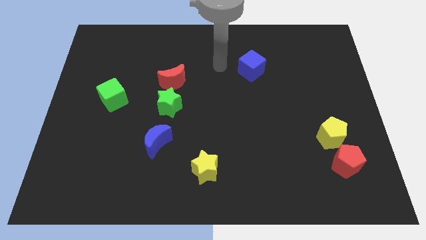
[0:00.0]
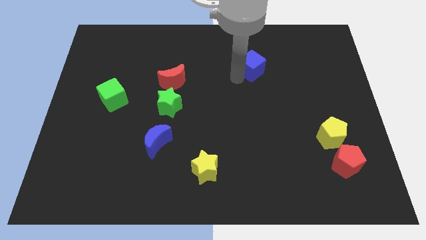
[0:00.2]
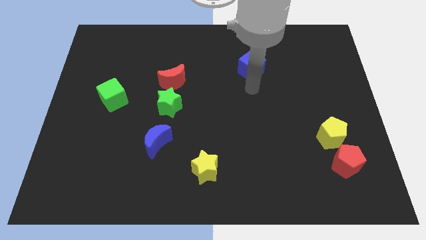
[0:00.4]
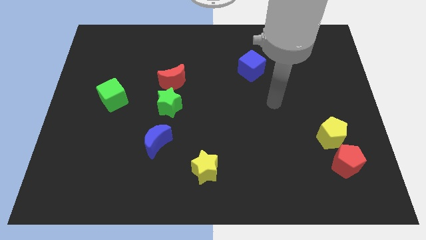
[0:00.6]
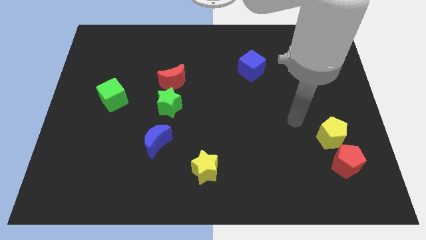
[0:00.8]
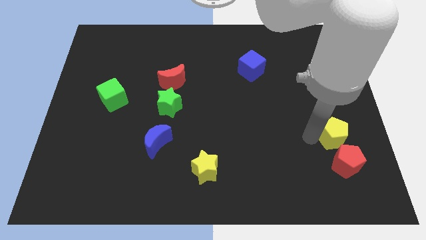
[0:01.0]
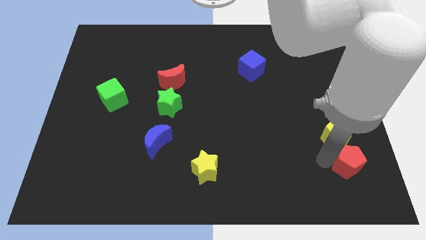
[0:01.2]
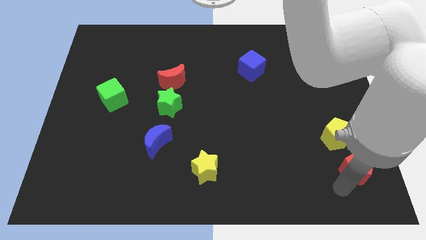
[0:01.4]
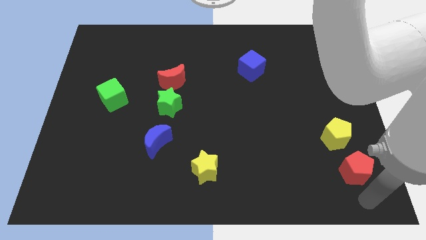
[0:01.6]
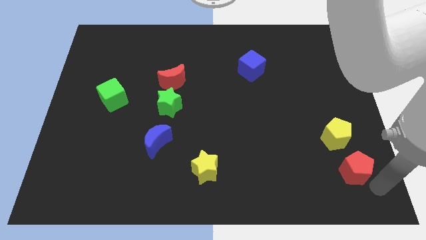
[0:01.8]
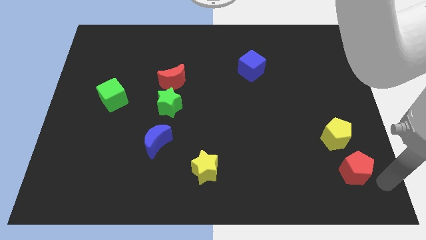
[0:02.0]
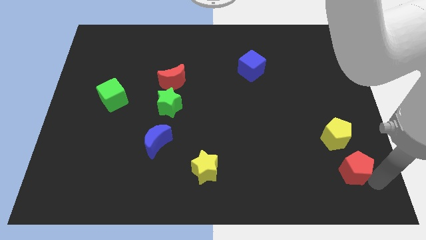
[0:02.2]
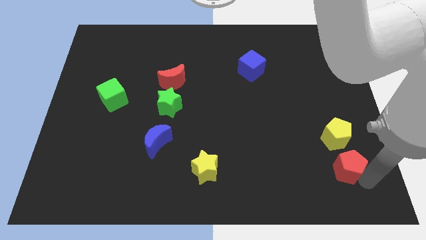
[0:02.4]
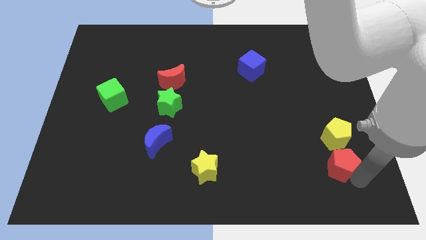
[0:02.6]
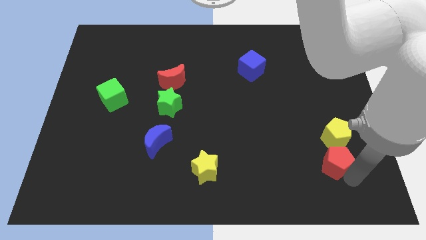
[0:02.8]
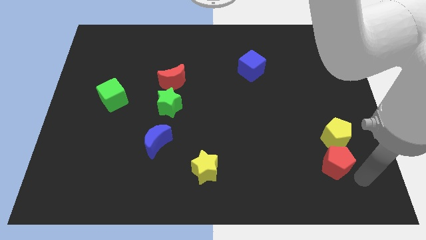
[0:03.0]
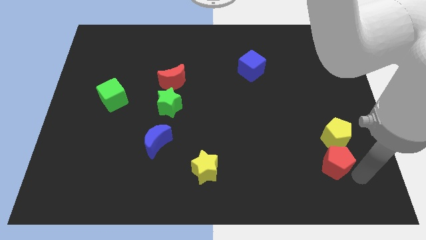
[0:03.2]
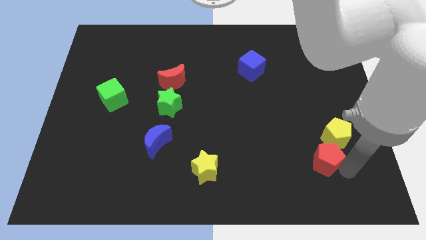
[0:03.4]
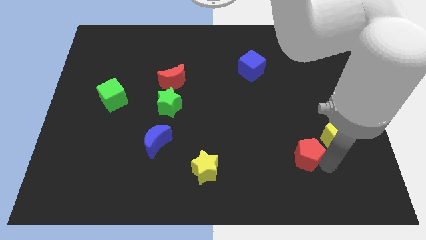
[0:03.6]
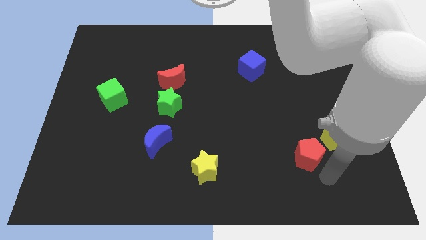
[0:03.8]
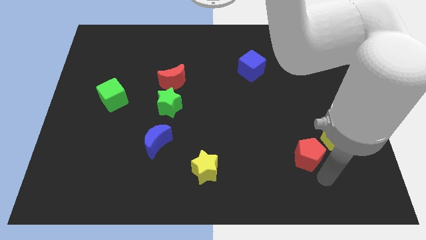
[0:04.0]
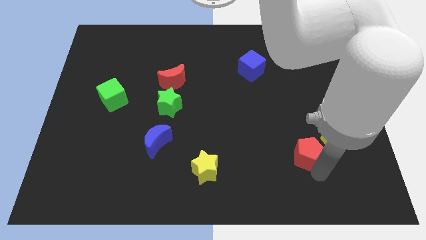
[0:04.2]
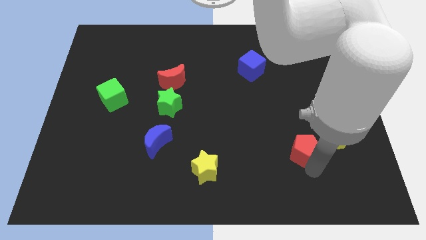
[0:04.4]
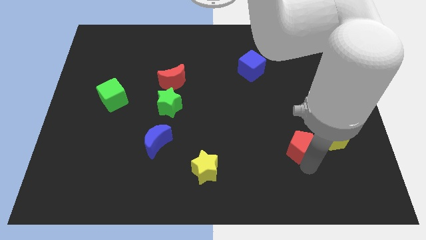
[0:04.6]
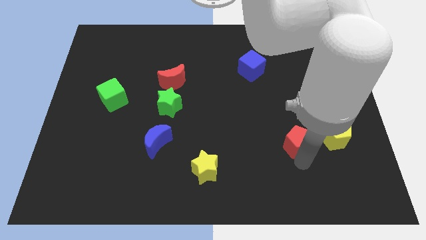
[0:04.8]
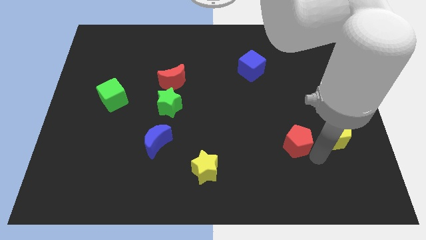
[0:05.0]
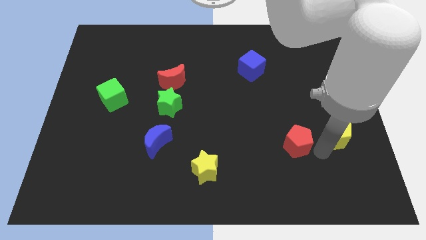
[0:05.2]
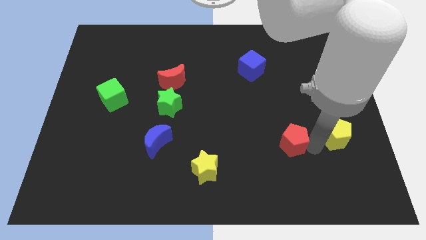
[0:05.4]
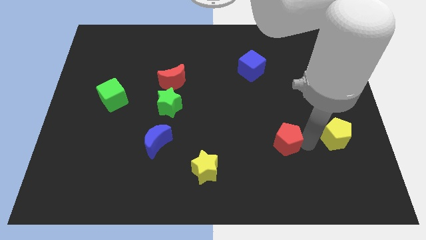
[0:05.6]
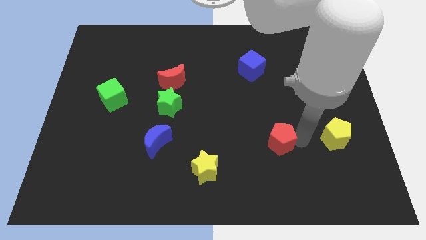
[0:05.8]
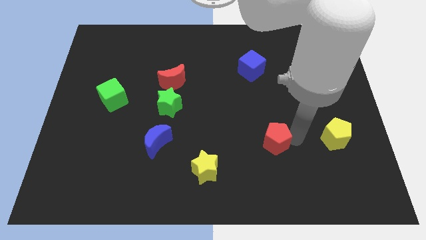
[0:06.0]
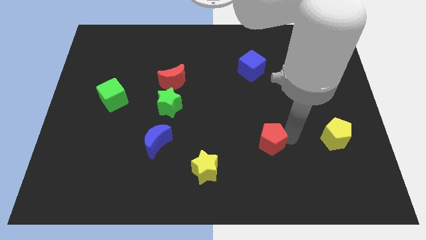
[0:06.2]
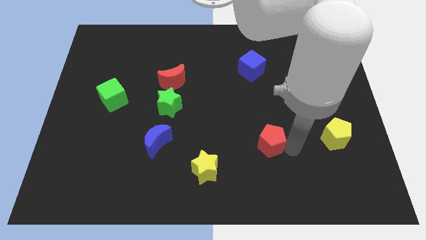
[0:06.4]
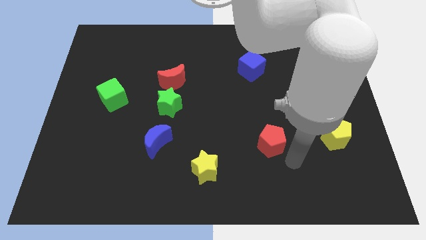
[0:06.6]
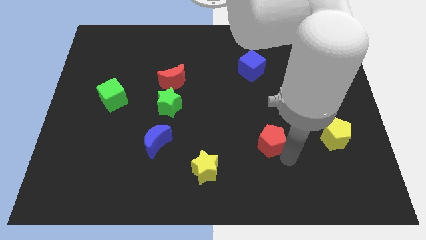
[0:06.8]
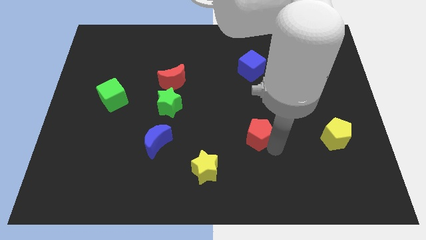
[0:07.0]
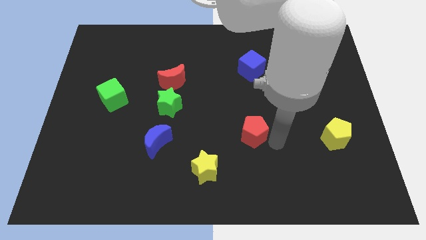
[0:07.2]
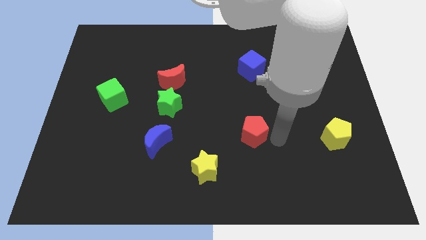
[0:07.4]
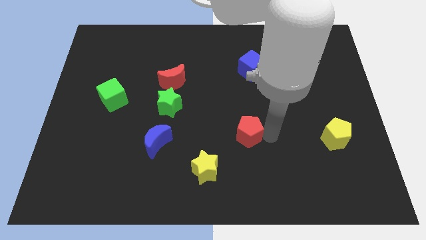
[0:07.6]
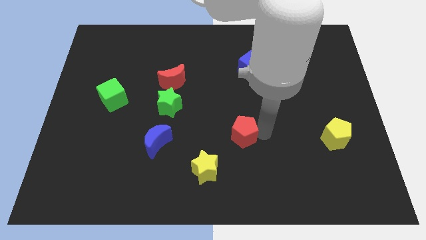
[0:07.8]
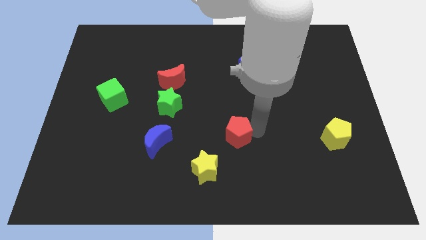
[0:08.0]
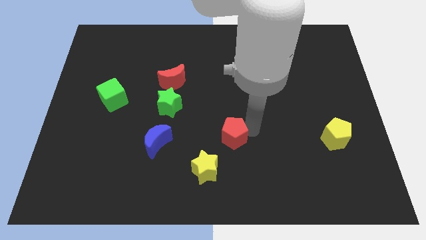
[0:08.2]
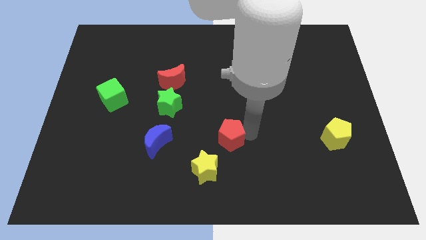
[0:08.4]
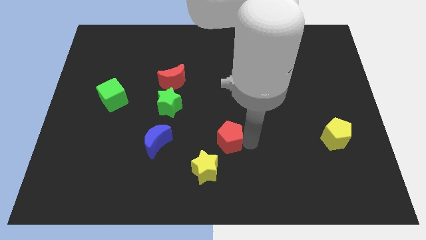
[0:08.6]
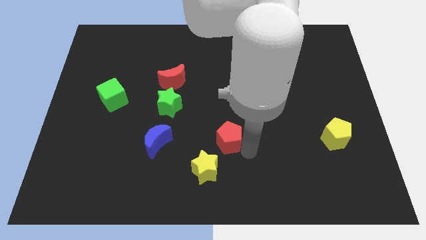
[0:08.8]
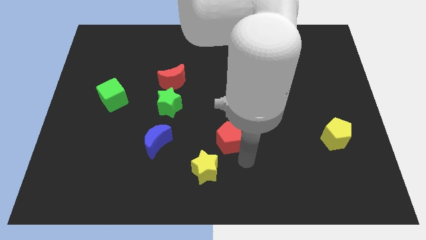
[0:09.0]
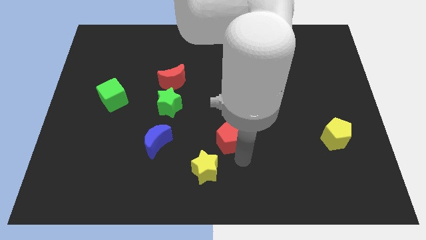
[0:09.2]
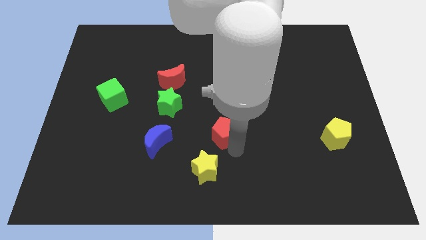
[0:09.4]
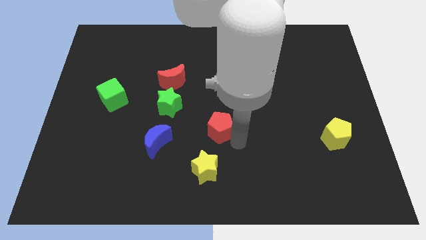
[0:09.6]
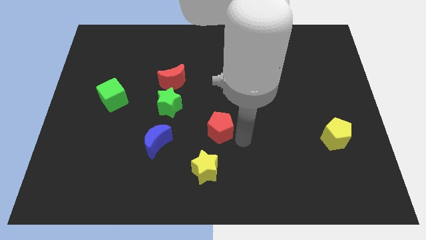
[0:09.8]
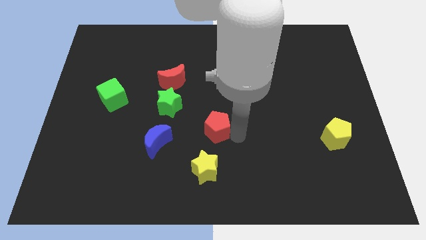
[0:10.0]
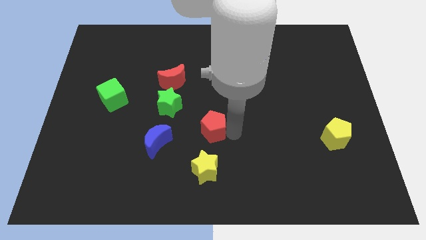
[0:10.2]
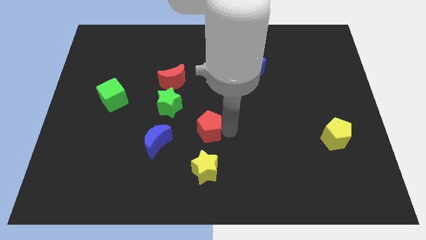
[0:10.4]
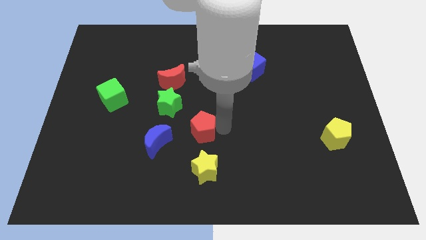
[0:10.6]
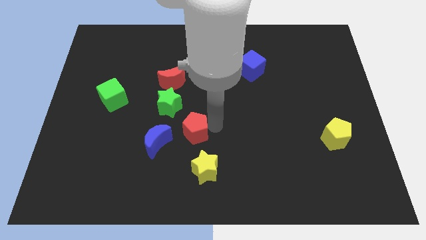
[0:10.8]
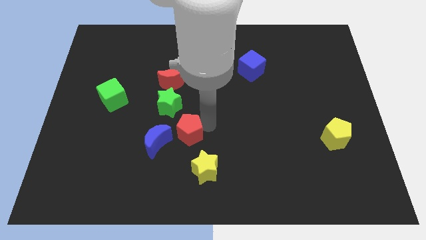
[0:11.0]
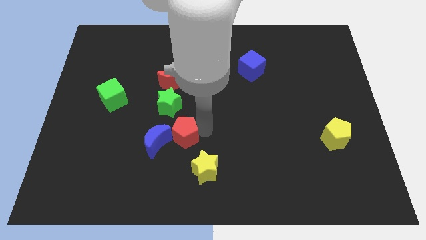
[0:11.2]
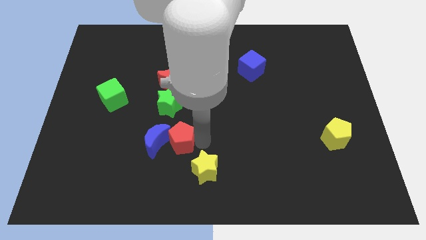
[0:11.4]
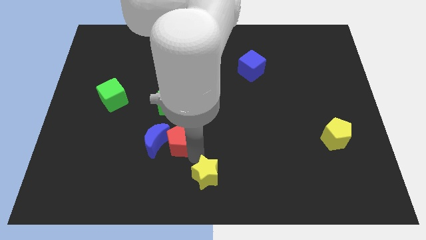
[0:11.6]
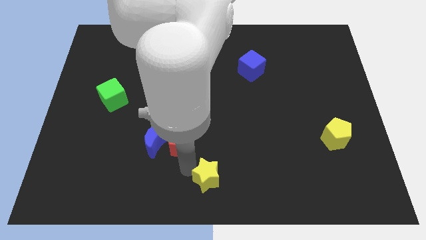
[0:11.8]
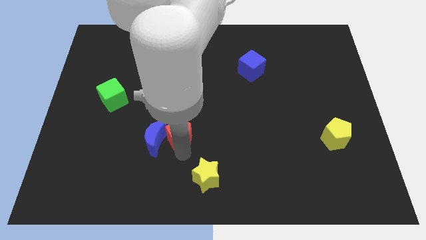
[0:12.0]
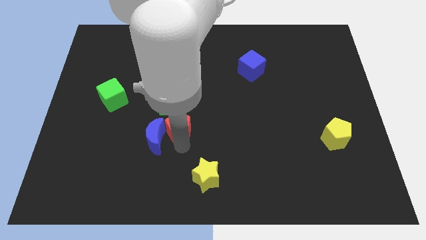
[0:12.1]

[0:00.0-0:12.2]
move the red pentagon below the red moon

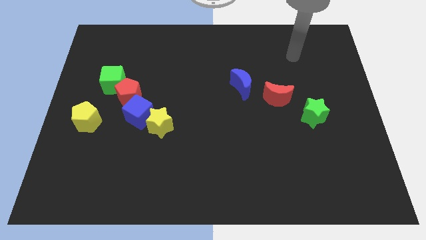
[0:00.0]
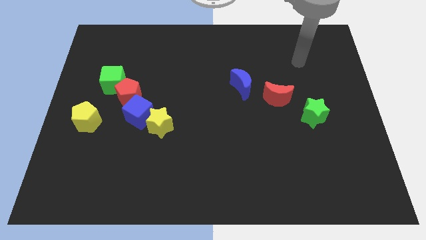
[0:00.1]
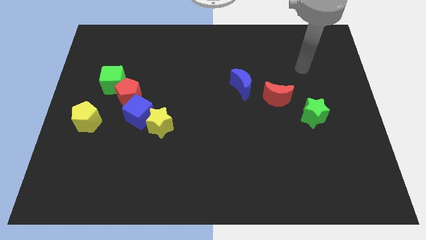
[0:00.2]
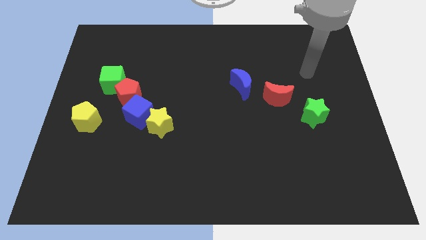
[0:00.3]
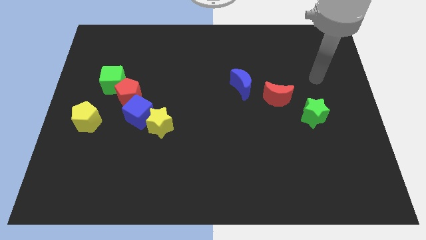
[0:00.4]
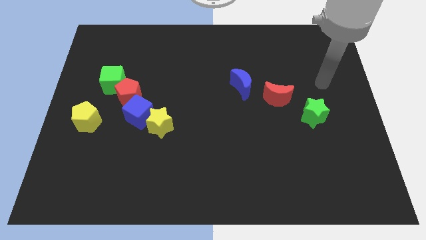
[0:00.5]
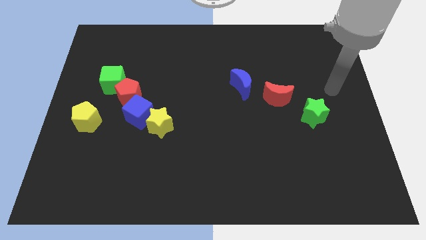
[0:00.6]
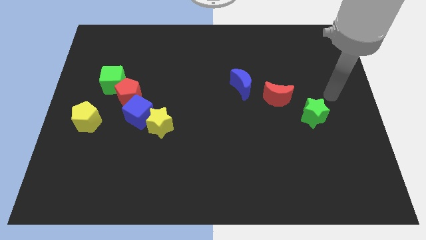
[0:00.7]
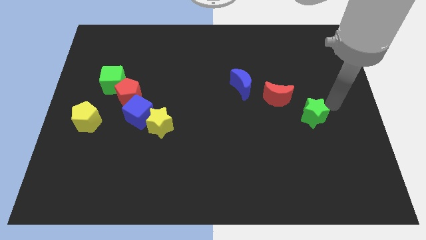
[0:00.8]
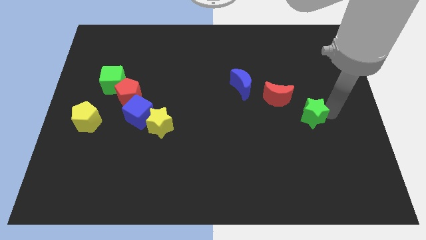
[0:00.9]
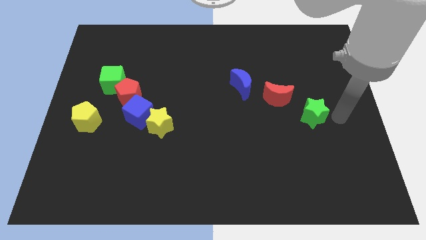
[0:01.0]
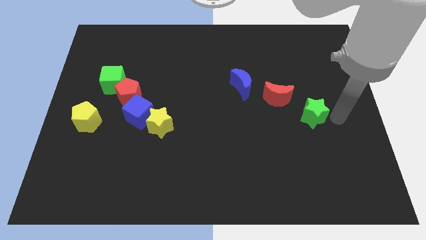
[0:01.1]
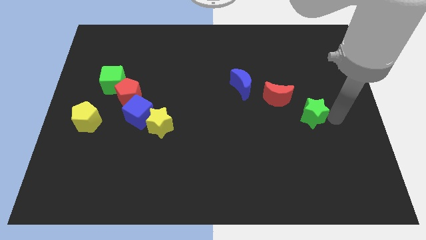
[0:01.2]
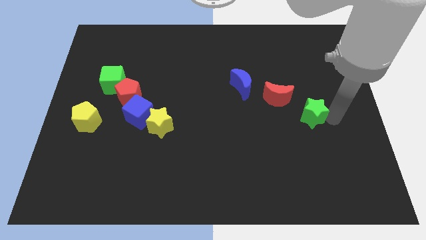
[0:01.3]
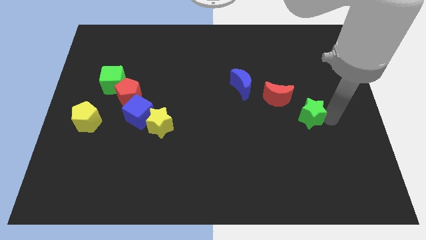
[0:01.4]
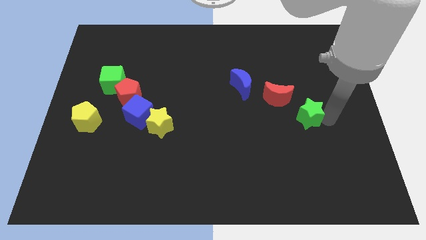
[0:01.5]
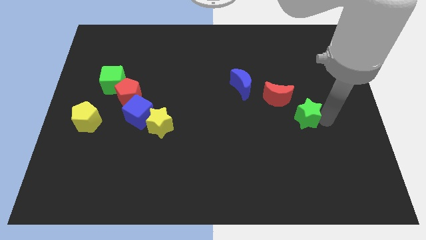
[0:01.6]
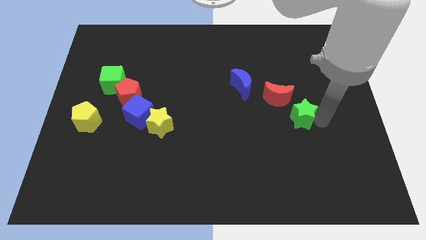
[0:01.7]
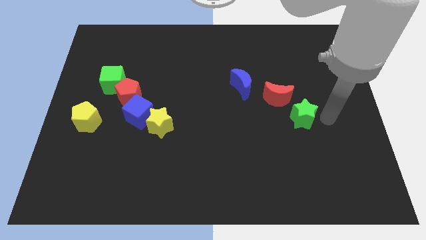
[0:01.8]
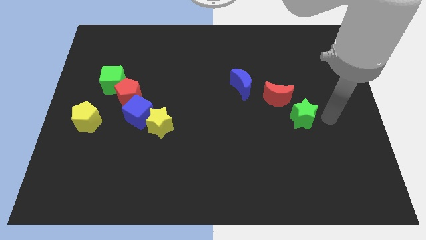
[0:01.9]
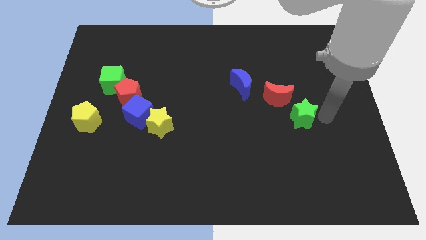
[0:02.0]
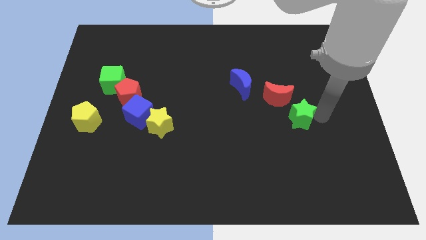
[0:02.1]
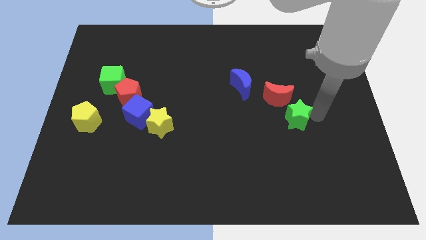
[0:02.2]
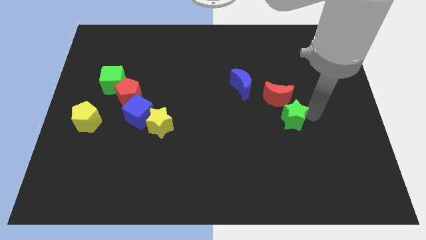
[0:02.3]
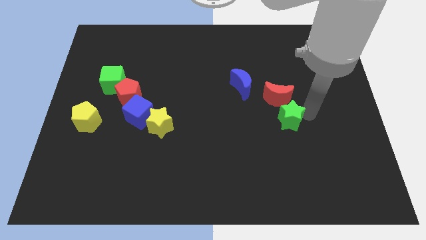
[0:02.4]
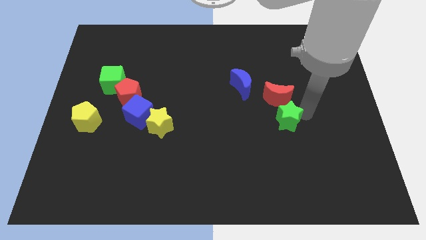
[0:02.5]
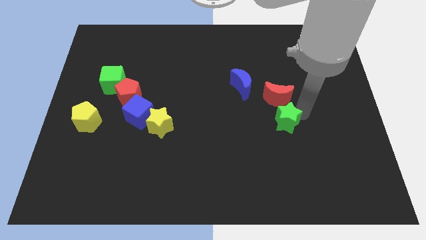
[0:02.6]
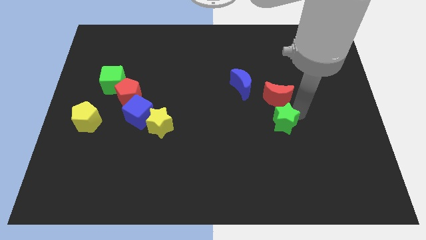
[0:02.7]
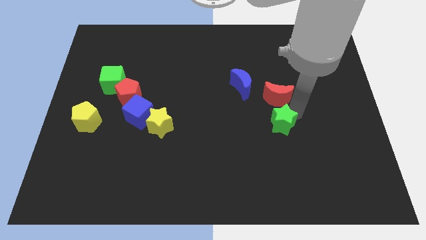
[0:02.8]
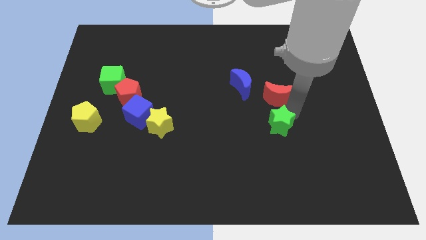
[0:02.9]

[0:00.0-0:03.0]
put the green star diagonally down and to the left of the red moon
